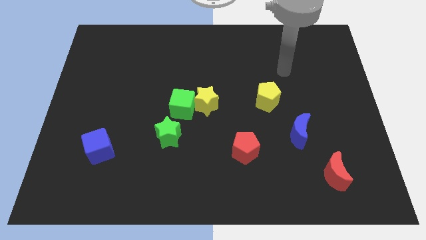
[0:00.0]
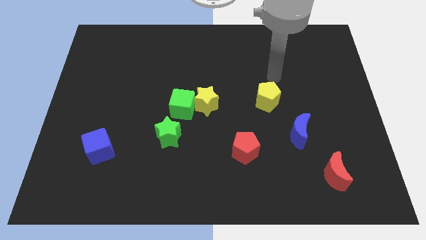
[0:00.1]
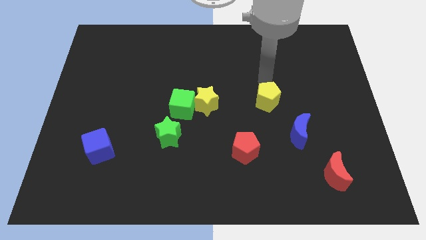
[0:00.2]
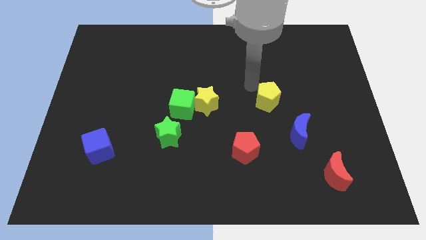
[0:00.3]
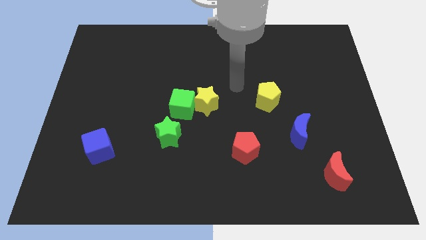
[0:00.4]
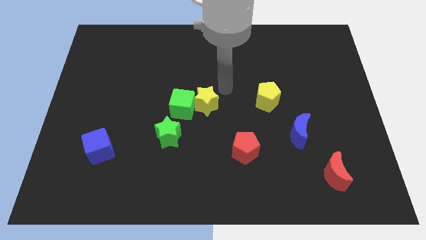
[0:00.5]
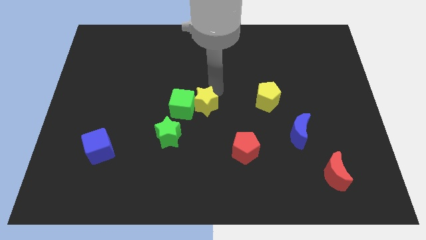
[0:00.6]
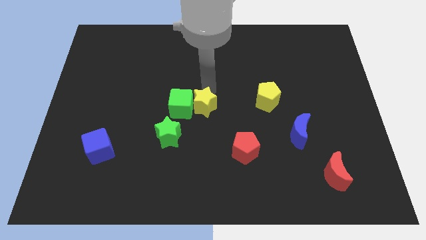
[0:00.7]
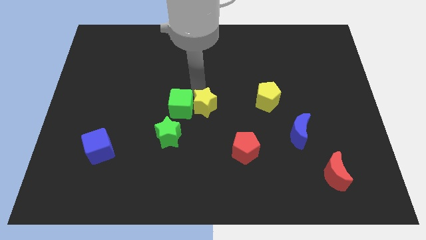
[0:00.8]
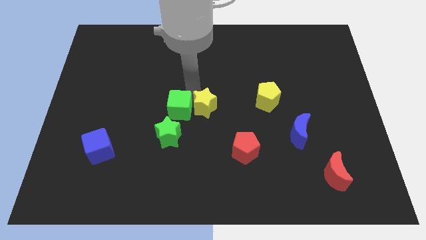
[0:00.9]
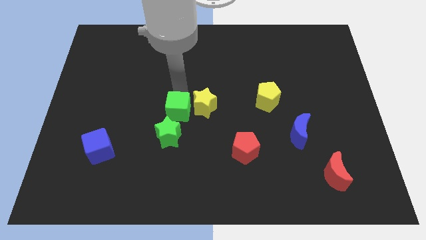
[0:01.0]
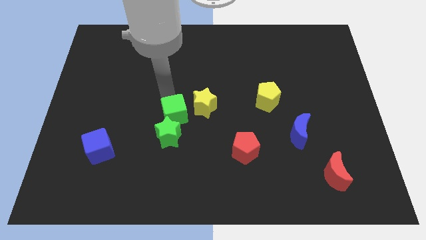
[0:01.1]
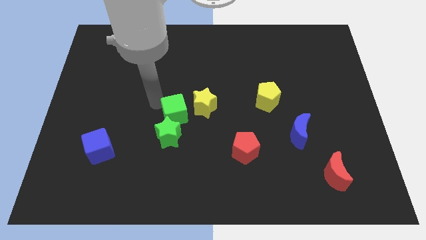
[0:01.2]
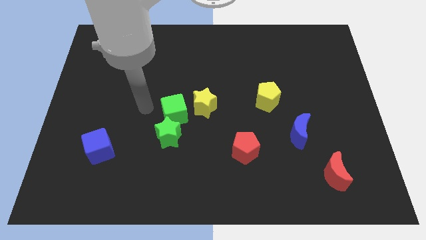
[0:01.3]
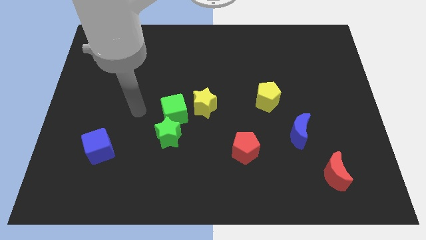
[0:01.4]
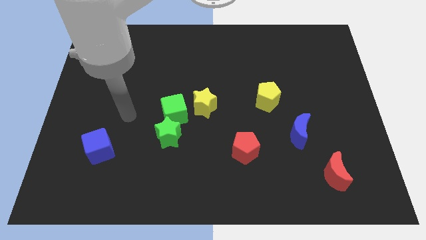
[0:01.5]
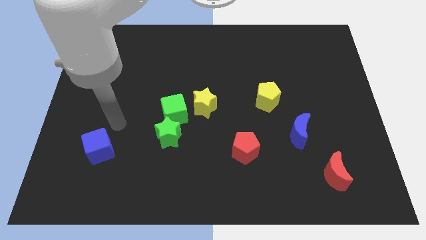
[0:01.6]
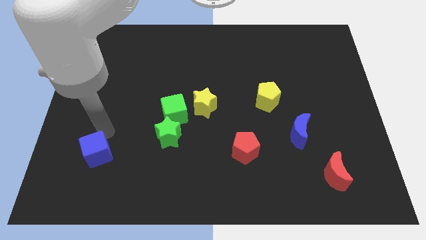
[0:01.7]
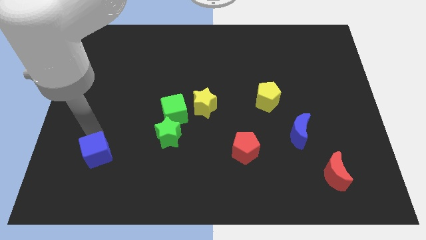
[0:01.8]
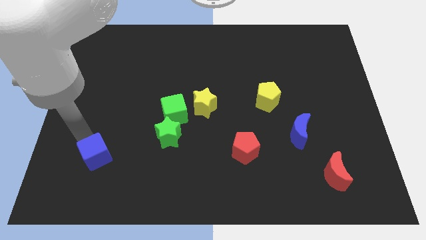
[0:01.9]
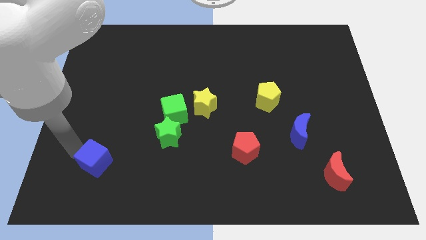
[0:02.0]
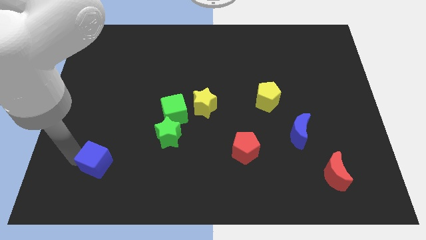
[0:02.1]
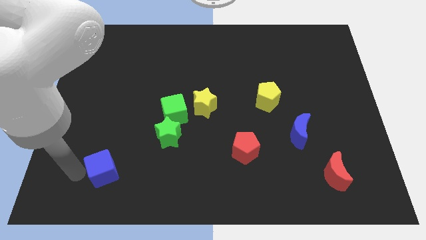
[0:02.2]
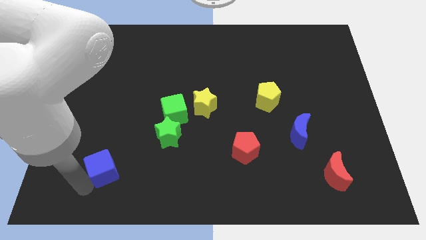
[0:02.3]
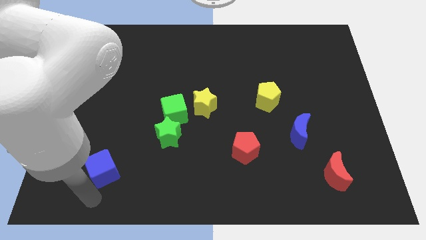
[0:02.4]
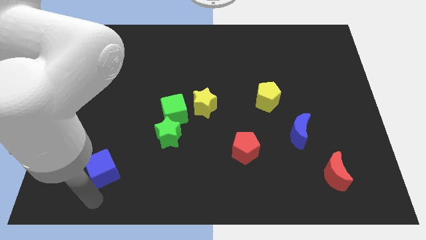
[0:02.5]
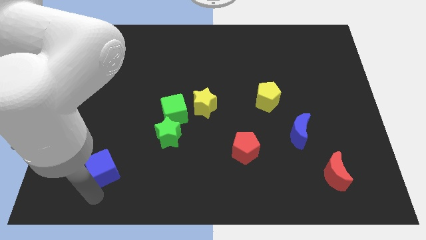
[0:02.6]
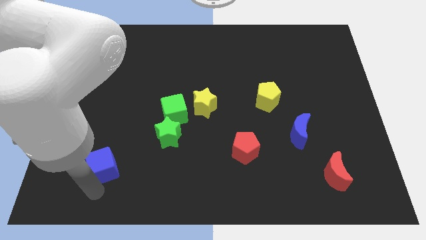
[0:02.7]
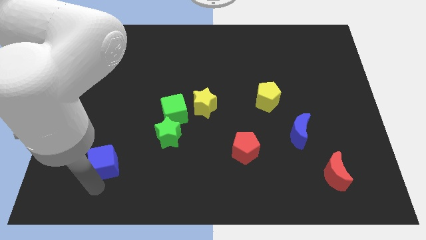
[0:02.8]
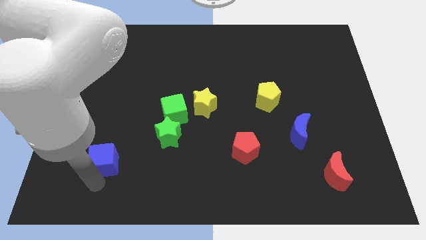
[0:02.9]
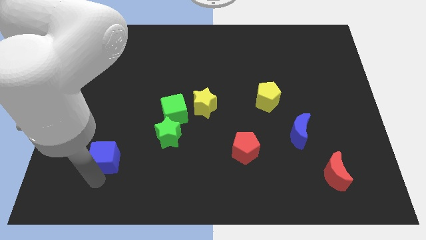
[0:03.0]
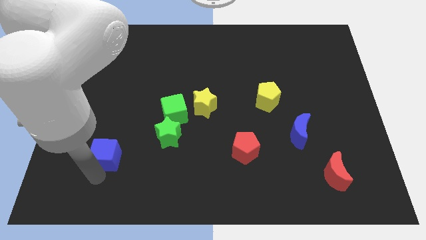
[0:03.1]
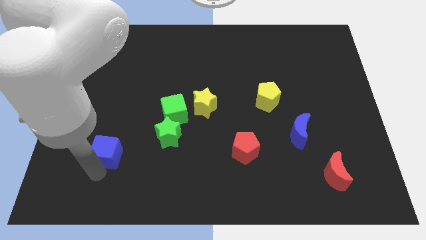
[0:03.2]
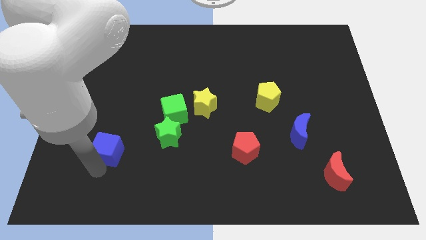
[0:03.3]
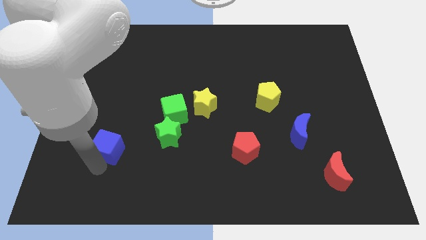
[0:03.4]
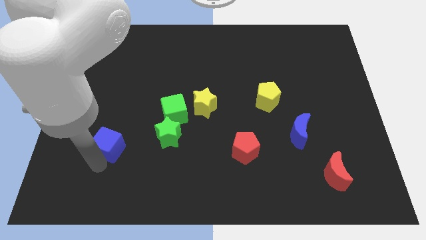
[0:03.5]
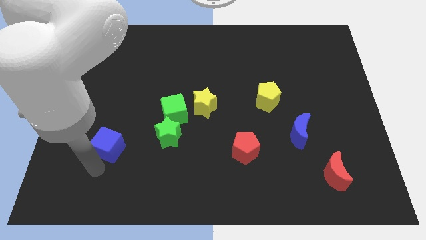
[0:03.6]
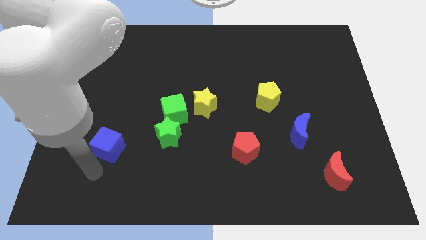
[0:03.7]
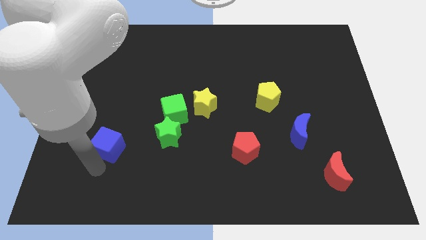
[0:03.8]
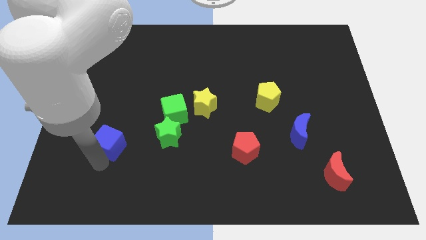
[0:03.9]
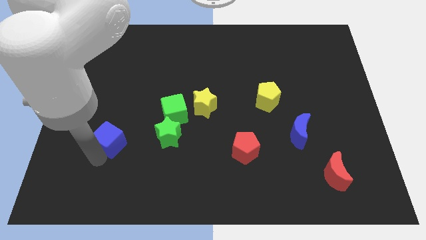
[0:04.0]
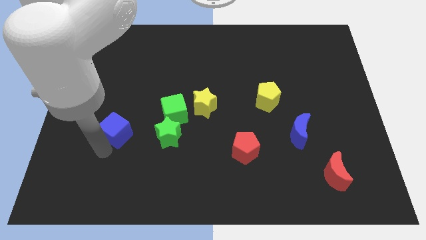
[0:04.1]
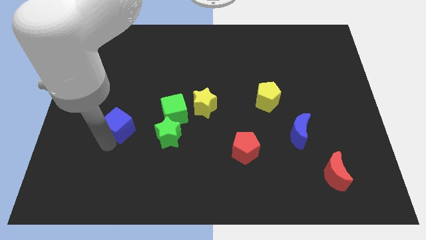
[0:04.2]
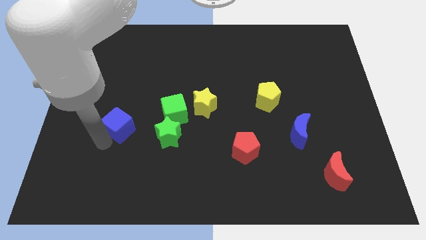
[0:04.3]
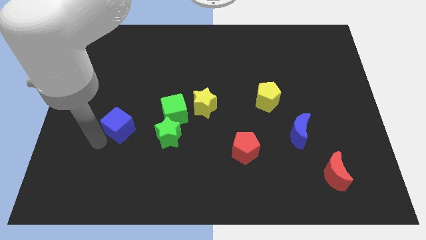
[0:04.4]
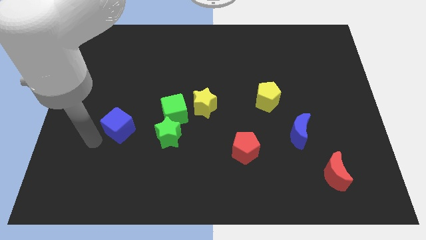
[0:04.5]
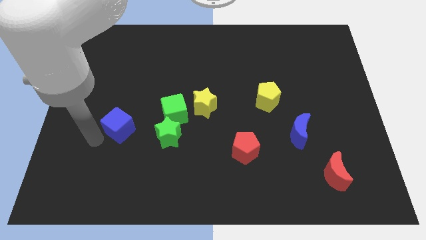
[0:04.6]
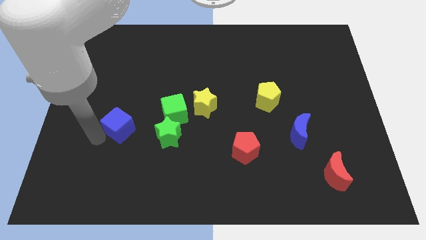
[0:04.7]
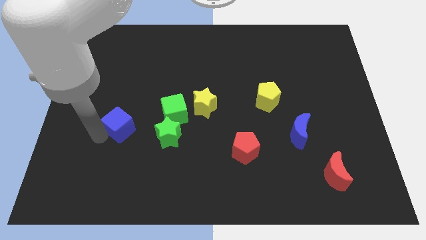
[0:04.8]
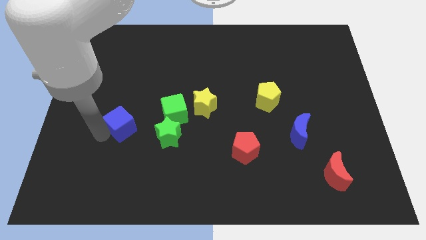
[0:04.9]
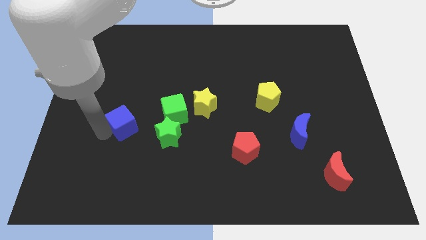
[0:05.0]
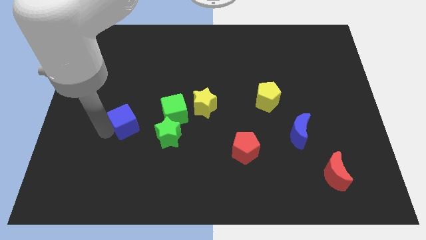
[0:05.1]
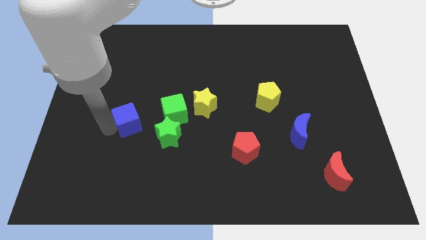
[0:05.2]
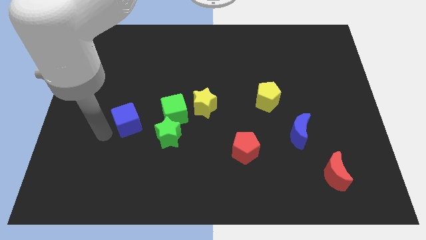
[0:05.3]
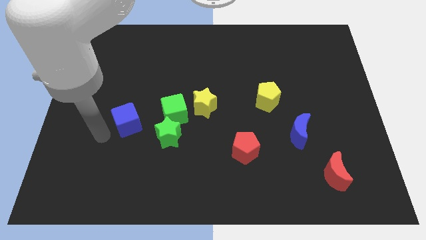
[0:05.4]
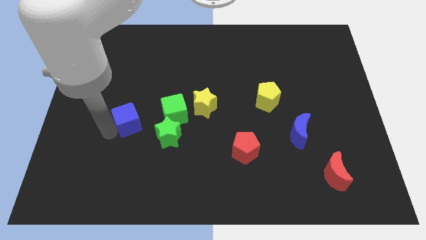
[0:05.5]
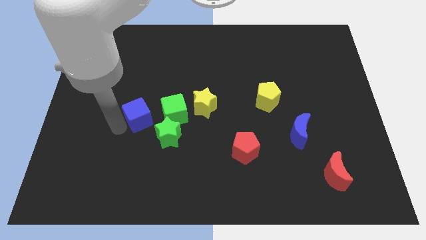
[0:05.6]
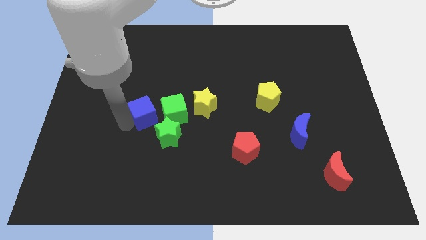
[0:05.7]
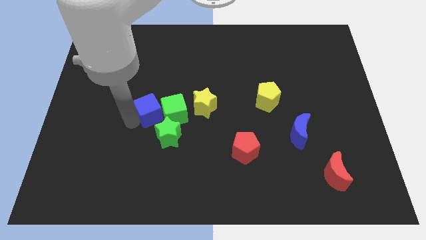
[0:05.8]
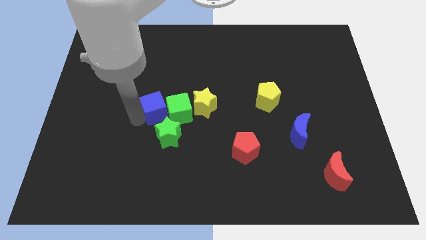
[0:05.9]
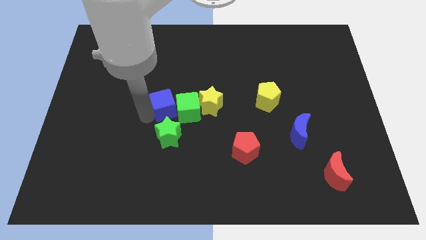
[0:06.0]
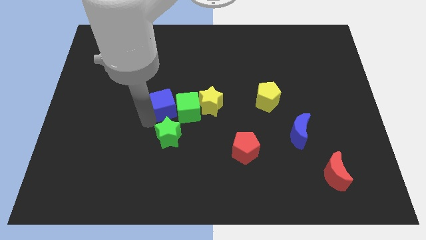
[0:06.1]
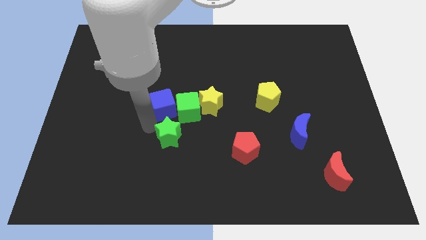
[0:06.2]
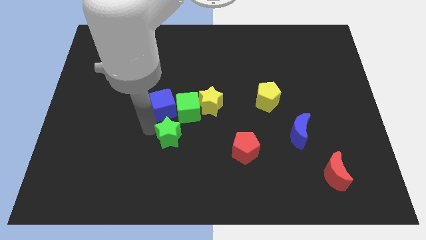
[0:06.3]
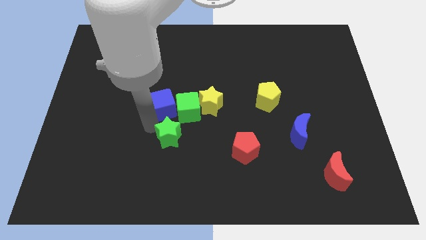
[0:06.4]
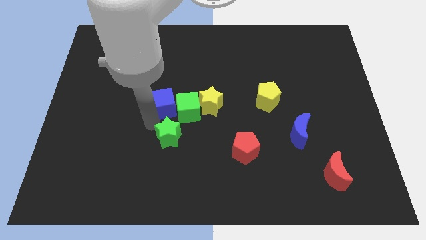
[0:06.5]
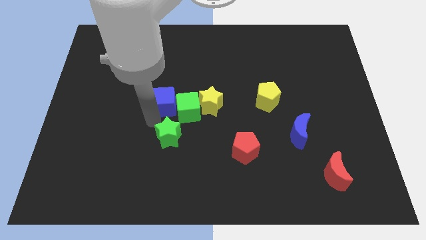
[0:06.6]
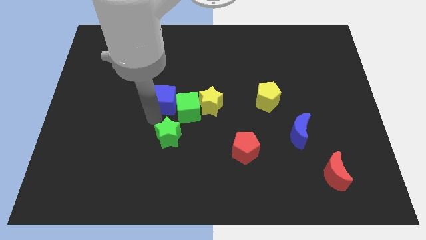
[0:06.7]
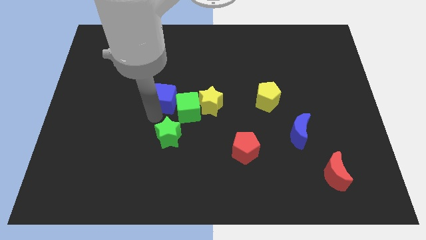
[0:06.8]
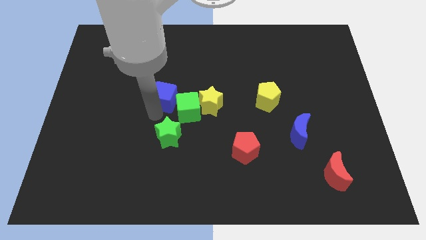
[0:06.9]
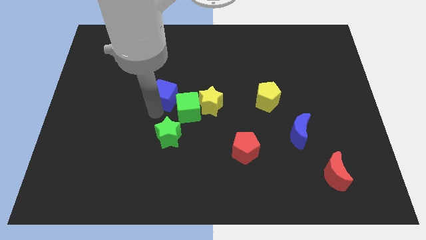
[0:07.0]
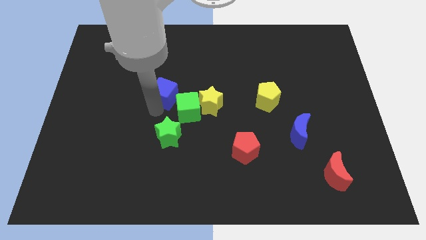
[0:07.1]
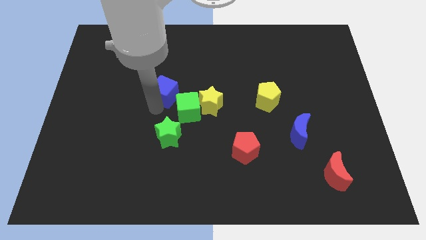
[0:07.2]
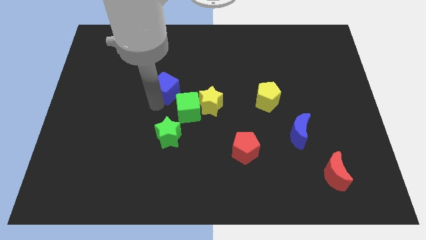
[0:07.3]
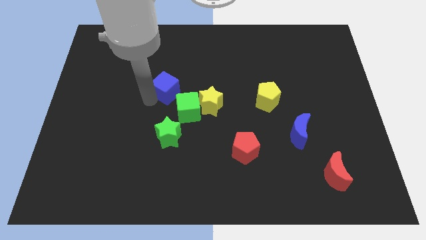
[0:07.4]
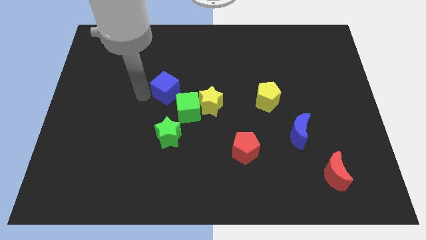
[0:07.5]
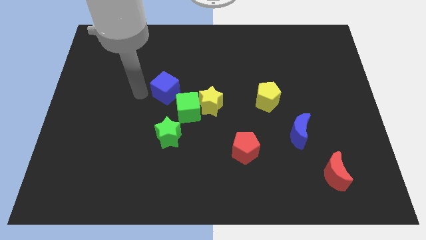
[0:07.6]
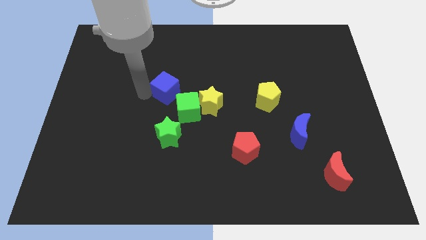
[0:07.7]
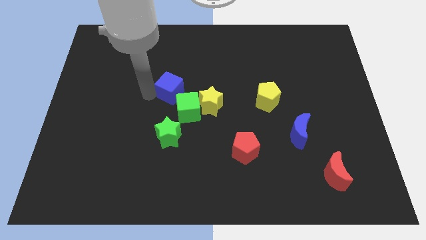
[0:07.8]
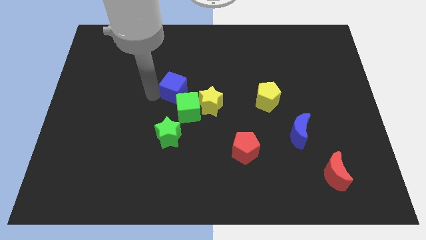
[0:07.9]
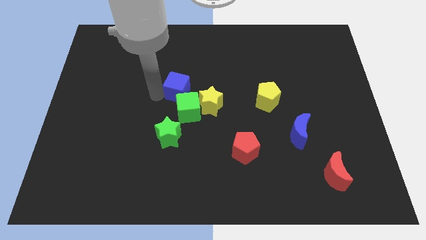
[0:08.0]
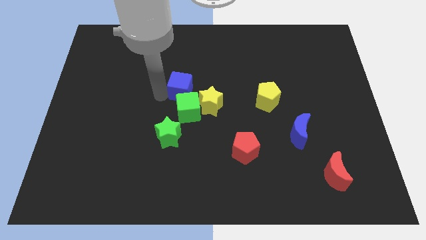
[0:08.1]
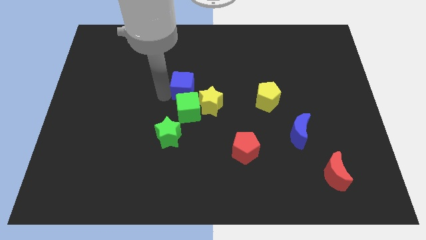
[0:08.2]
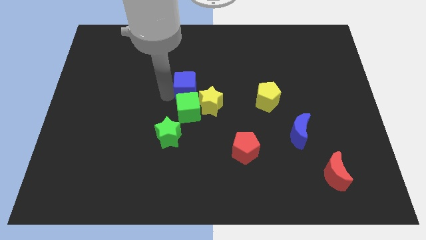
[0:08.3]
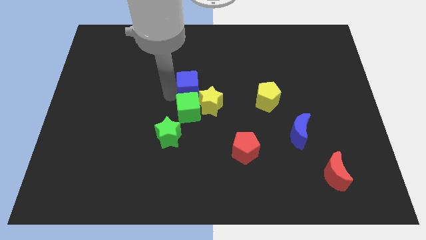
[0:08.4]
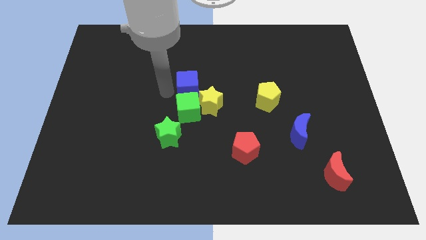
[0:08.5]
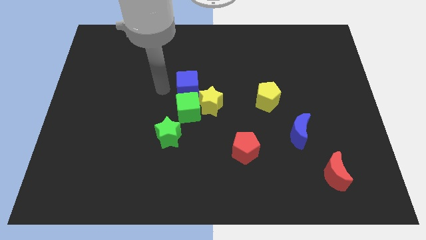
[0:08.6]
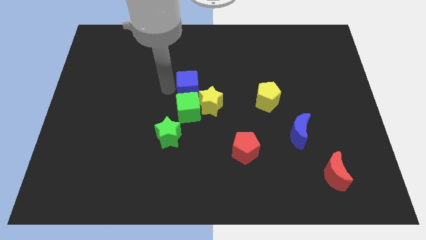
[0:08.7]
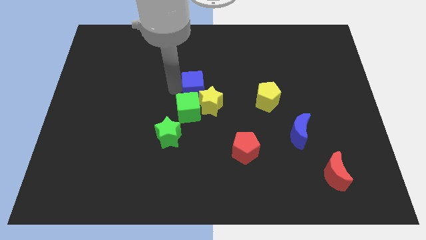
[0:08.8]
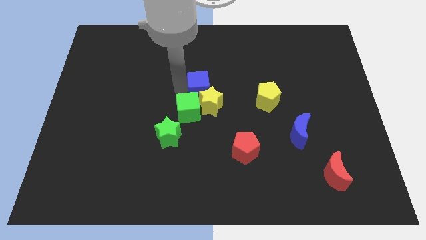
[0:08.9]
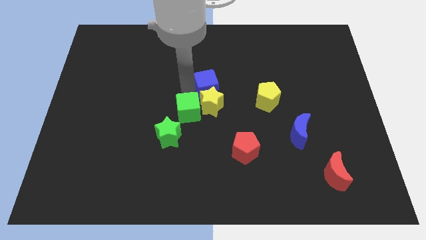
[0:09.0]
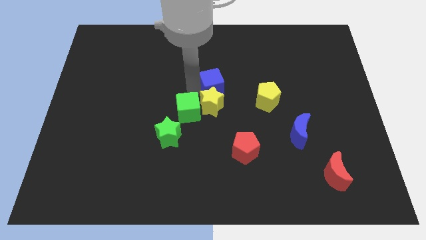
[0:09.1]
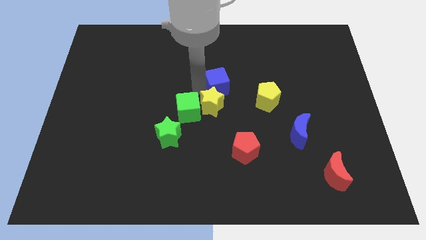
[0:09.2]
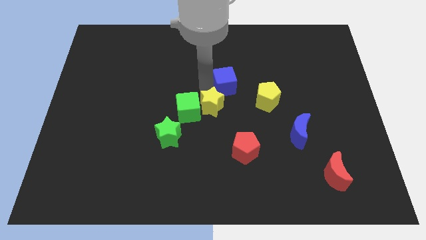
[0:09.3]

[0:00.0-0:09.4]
push the blue cube to the top left side of the yellow pentagon
